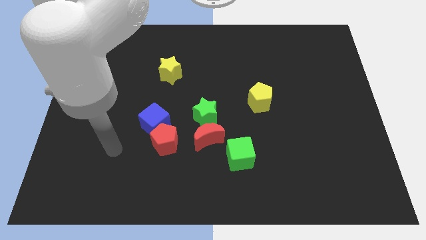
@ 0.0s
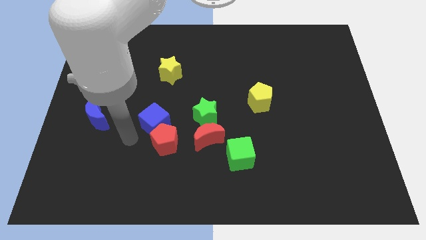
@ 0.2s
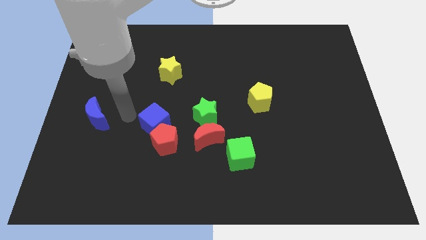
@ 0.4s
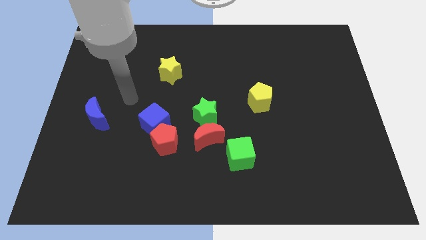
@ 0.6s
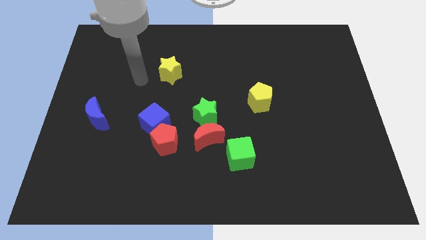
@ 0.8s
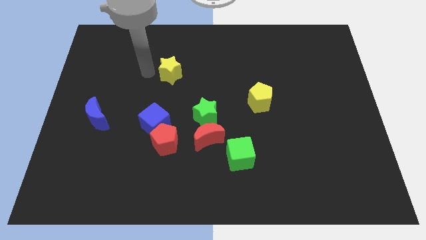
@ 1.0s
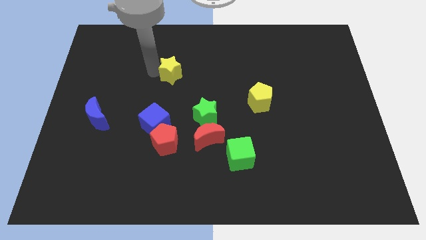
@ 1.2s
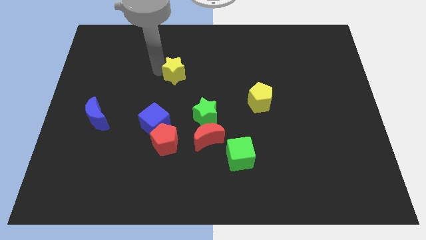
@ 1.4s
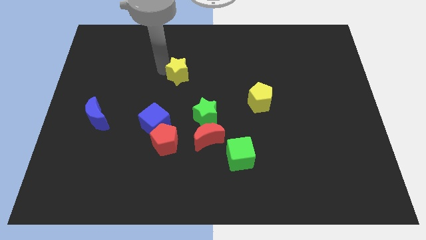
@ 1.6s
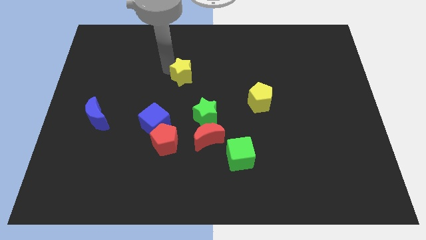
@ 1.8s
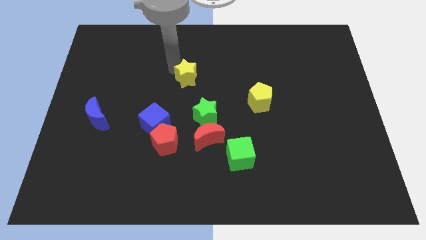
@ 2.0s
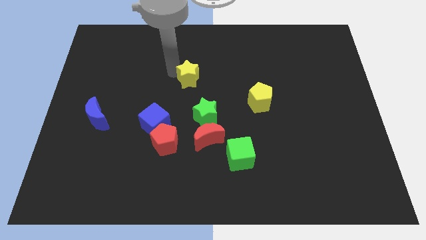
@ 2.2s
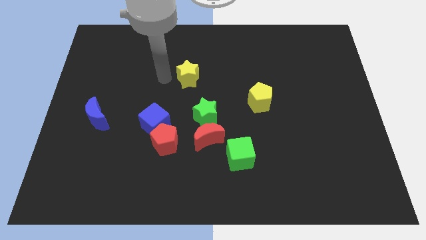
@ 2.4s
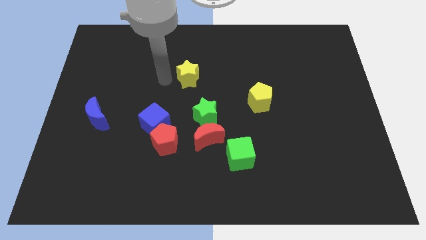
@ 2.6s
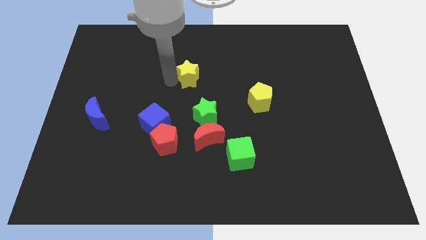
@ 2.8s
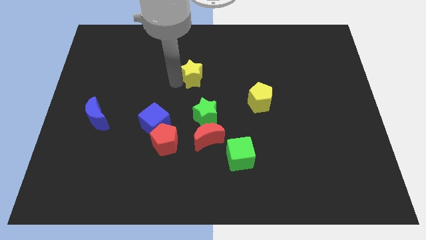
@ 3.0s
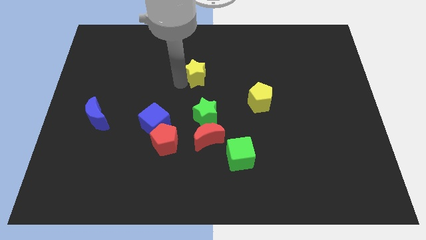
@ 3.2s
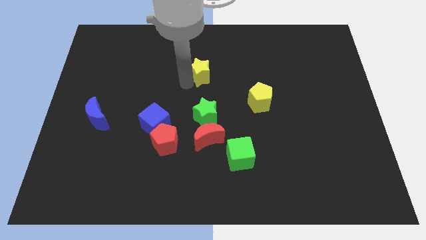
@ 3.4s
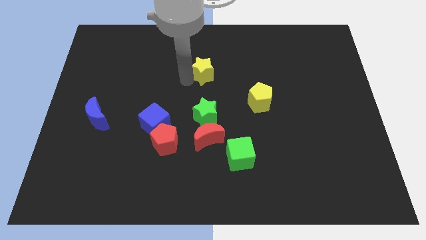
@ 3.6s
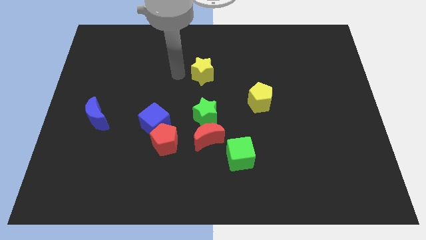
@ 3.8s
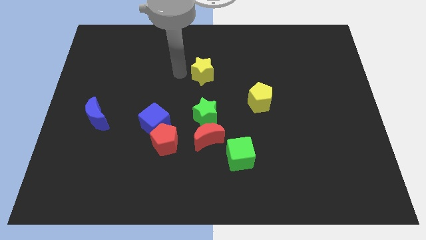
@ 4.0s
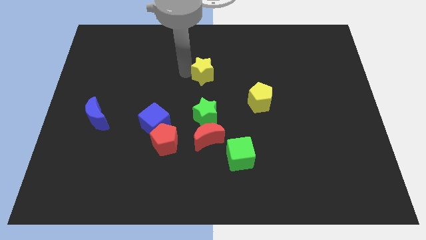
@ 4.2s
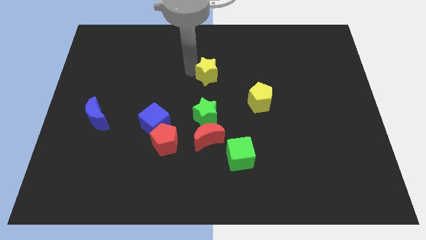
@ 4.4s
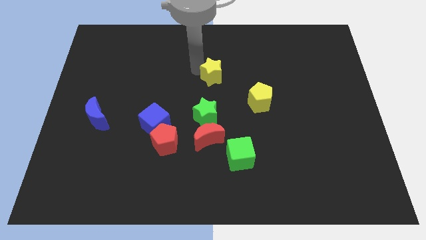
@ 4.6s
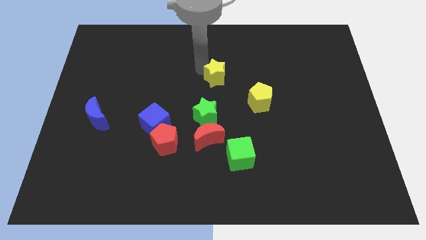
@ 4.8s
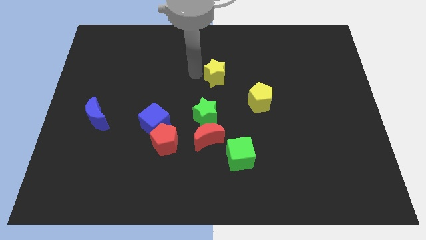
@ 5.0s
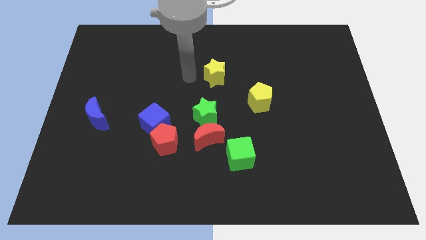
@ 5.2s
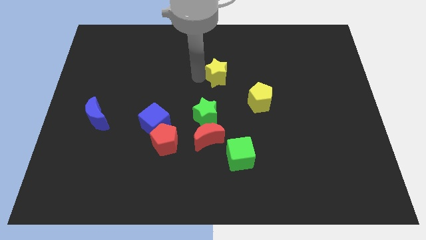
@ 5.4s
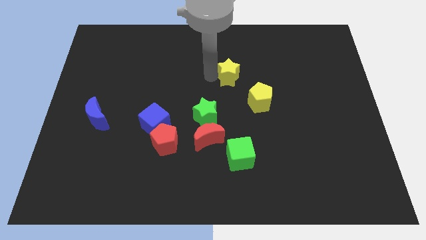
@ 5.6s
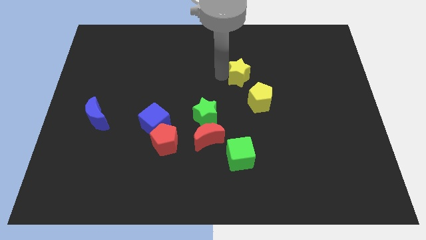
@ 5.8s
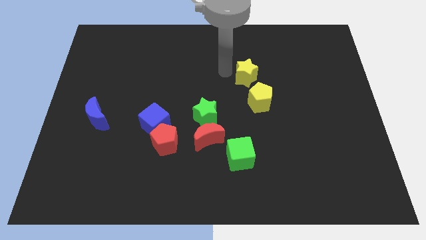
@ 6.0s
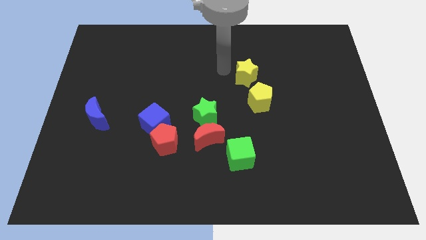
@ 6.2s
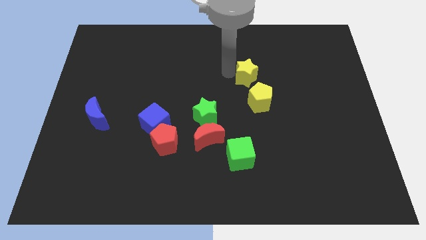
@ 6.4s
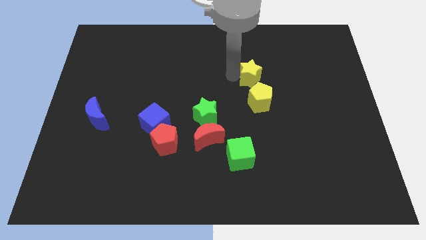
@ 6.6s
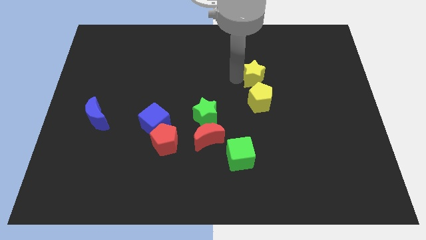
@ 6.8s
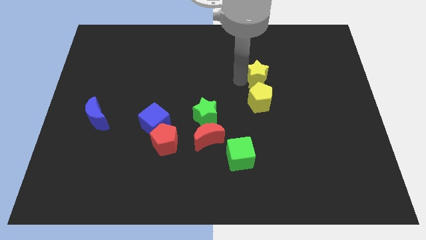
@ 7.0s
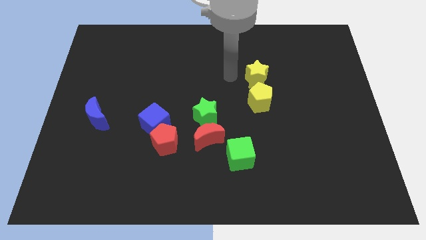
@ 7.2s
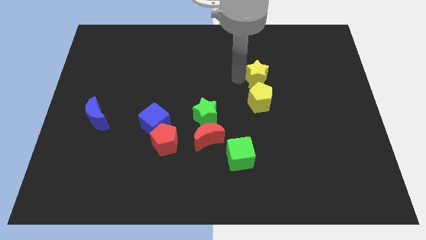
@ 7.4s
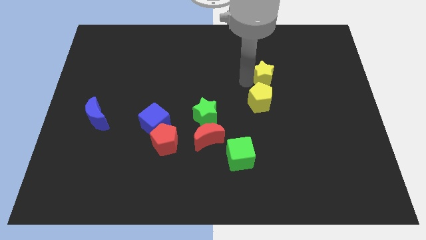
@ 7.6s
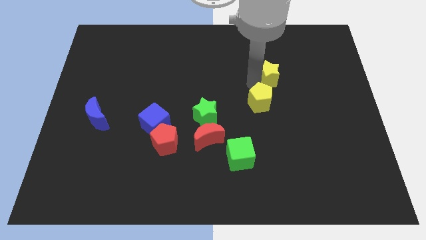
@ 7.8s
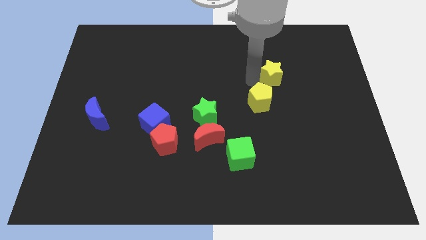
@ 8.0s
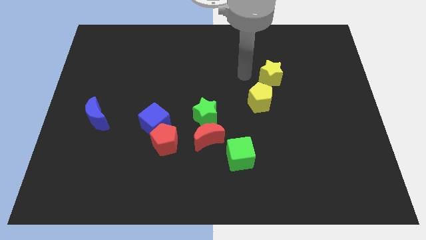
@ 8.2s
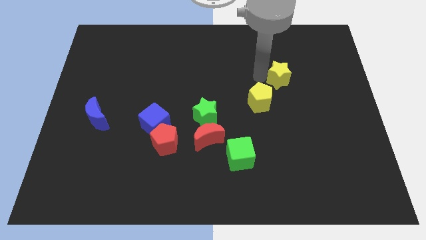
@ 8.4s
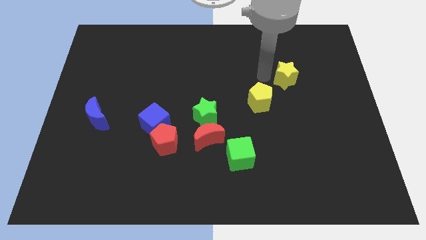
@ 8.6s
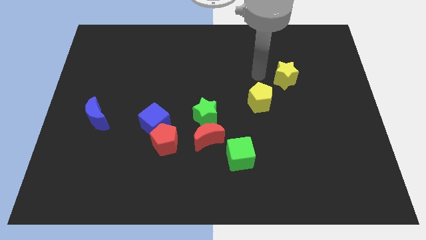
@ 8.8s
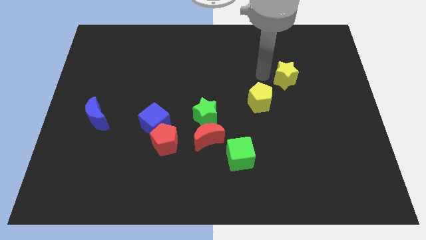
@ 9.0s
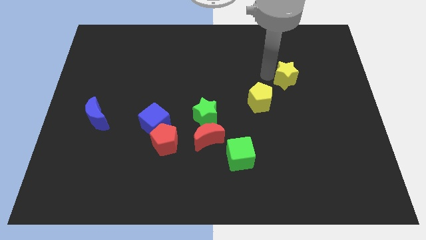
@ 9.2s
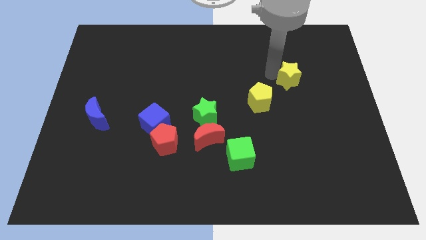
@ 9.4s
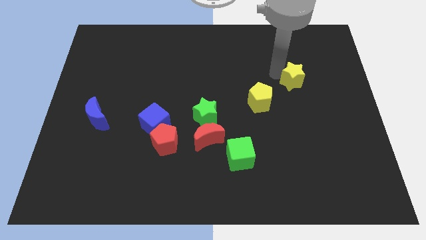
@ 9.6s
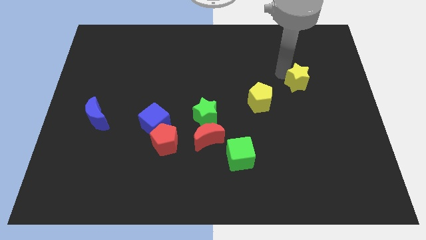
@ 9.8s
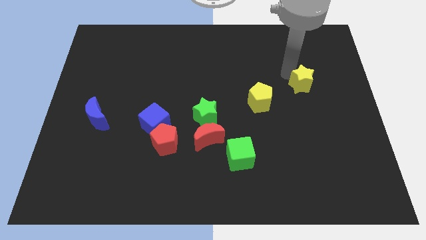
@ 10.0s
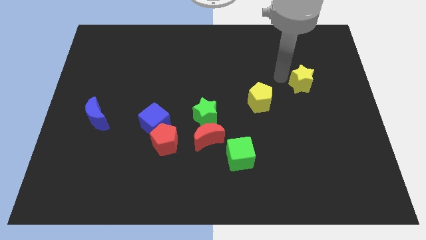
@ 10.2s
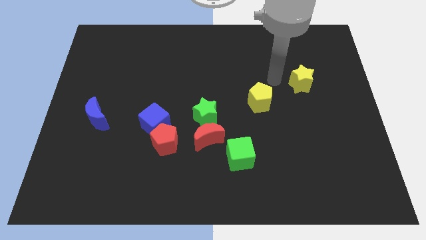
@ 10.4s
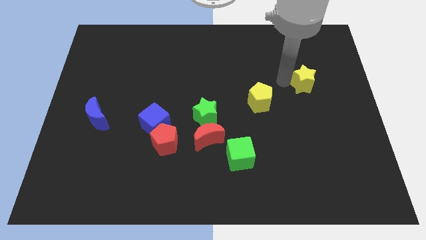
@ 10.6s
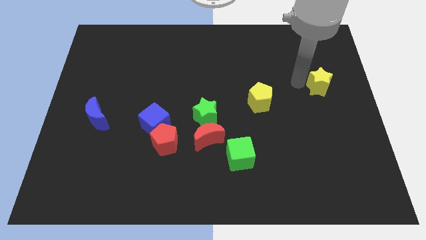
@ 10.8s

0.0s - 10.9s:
put the yellow star to the center right

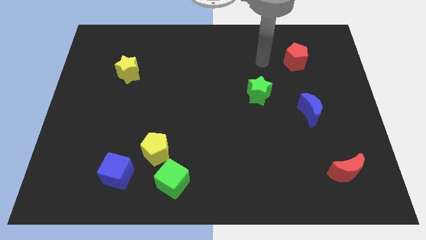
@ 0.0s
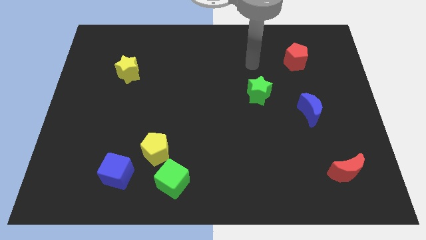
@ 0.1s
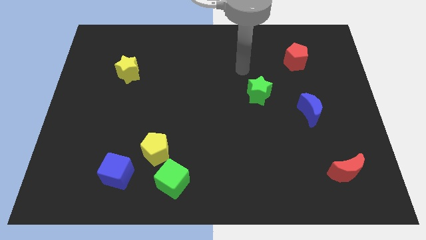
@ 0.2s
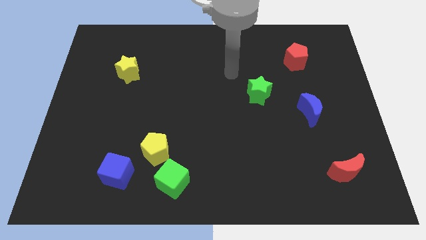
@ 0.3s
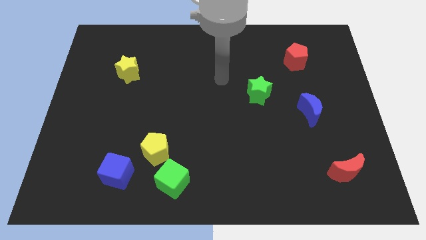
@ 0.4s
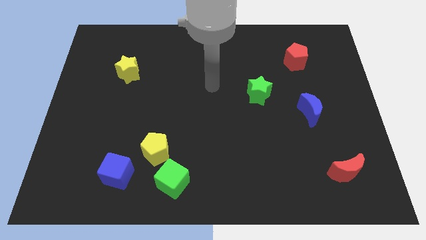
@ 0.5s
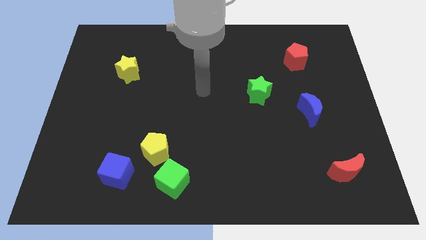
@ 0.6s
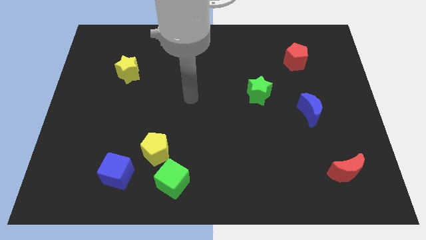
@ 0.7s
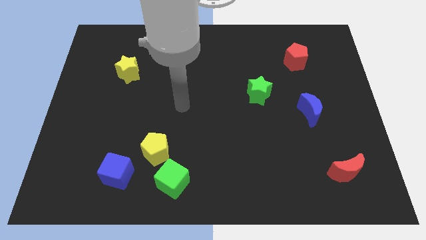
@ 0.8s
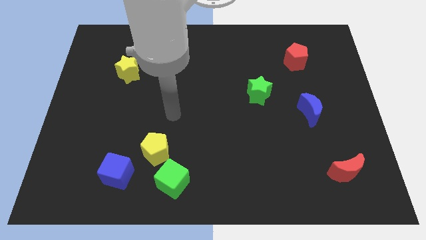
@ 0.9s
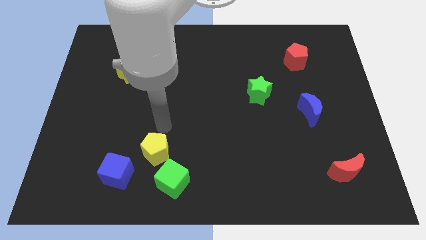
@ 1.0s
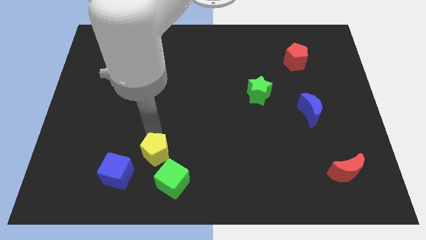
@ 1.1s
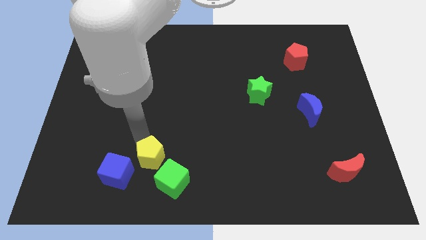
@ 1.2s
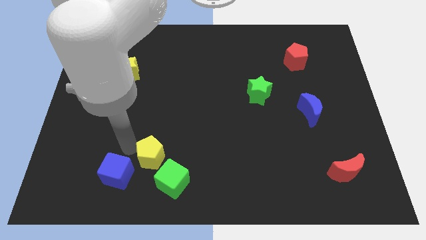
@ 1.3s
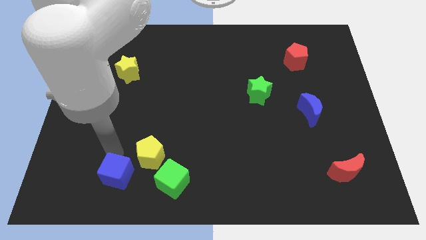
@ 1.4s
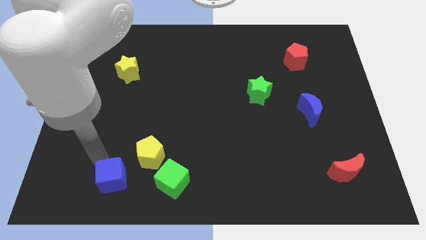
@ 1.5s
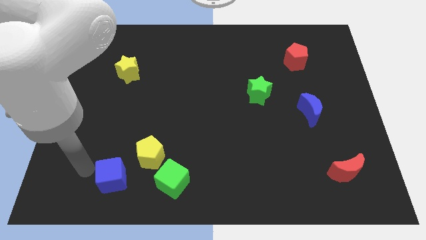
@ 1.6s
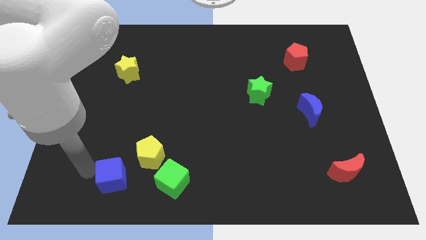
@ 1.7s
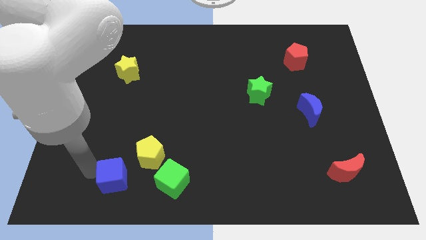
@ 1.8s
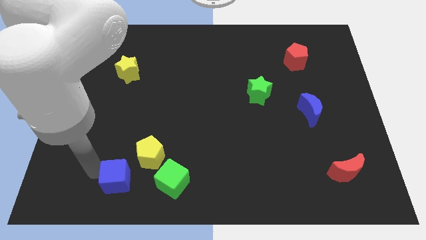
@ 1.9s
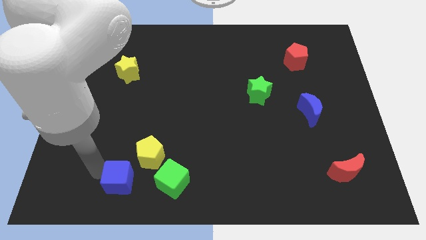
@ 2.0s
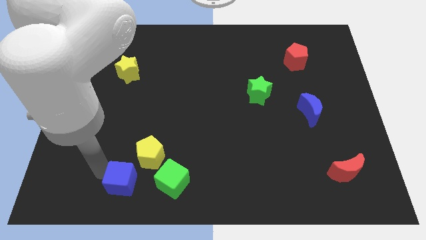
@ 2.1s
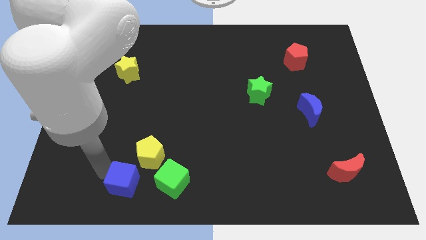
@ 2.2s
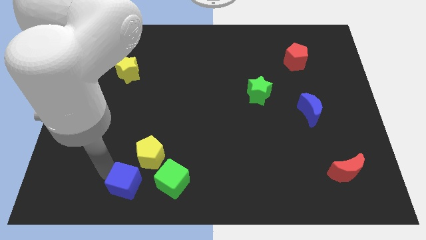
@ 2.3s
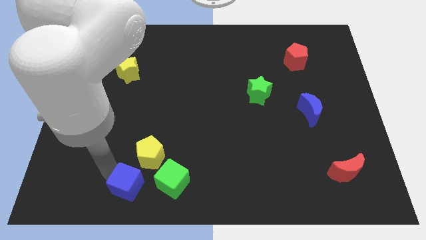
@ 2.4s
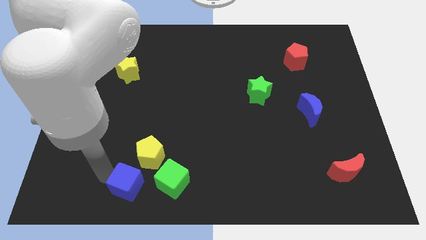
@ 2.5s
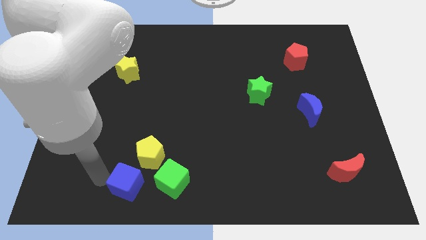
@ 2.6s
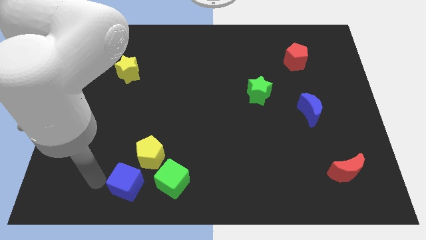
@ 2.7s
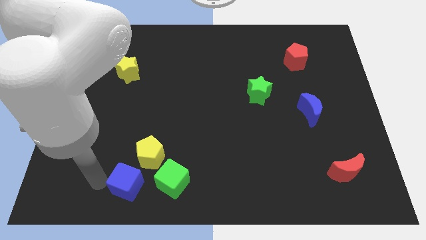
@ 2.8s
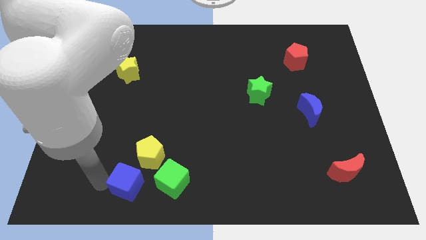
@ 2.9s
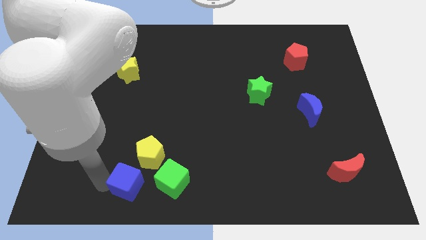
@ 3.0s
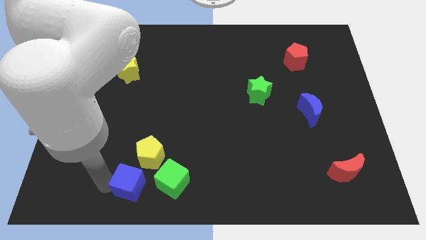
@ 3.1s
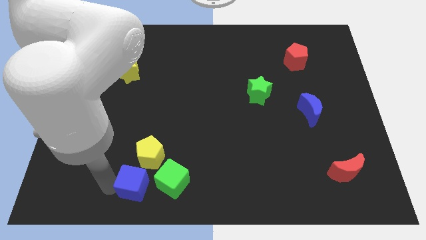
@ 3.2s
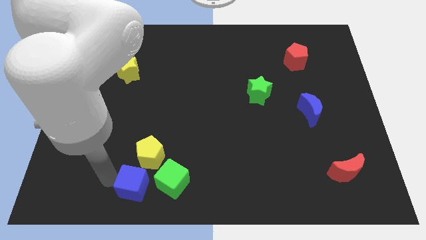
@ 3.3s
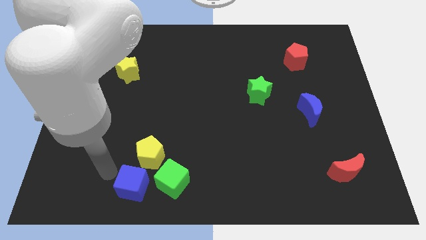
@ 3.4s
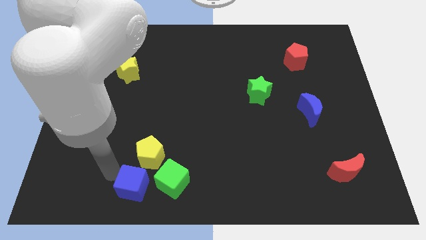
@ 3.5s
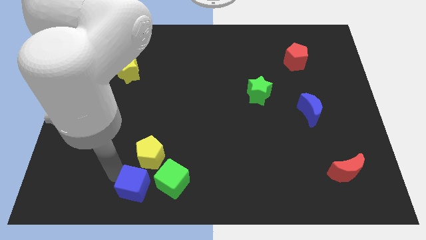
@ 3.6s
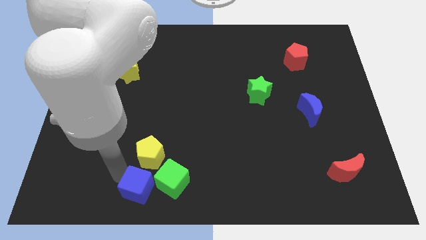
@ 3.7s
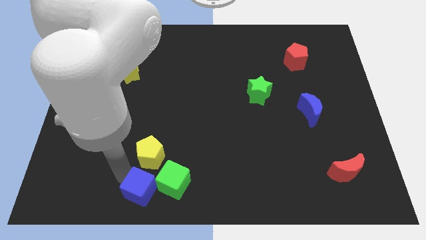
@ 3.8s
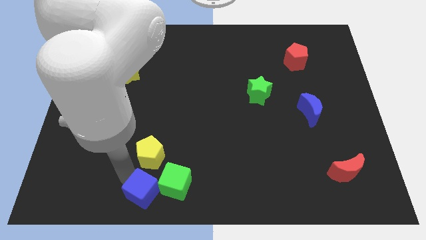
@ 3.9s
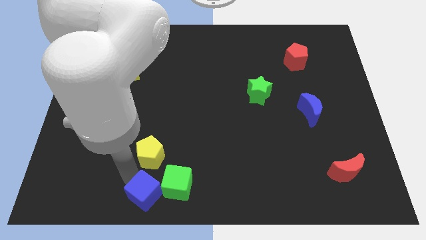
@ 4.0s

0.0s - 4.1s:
move the blue cube to the bottom
